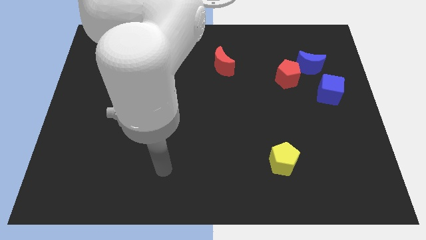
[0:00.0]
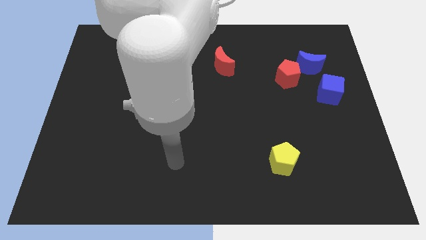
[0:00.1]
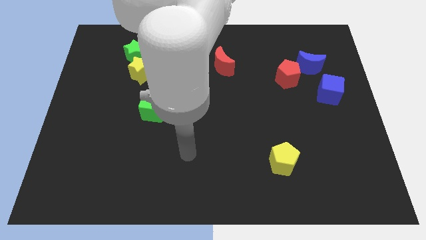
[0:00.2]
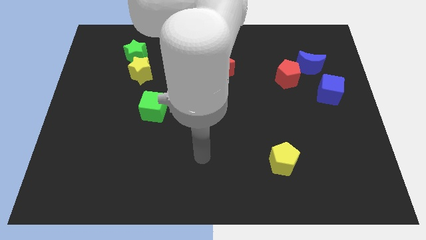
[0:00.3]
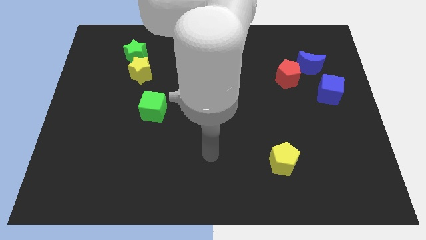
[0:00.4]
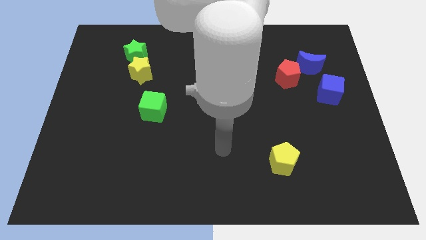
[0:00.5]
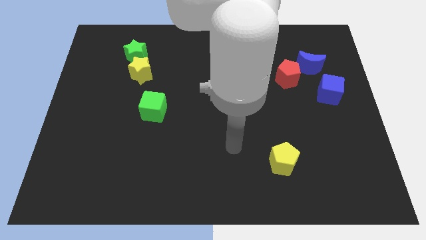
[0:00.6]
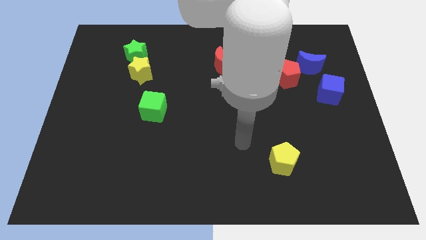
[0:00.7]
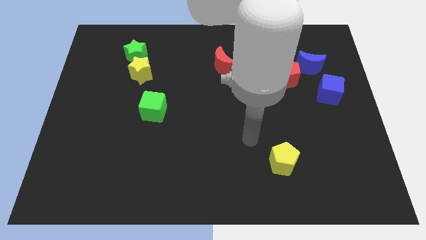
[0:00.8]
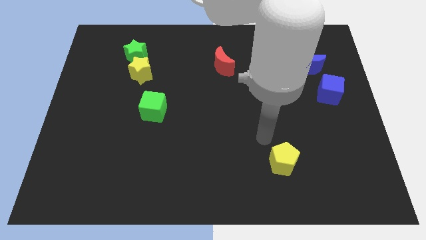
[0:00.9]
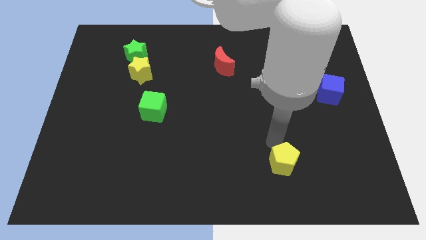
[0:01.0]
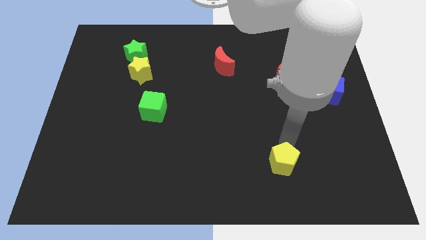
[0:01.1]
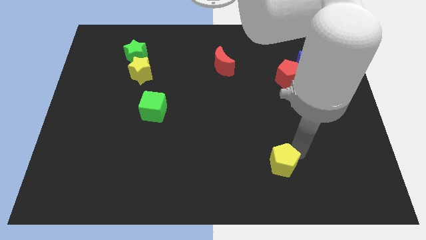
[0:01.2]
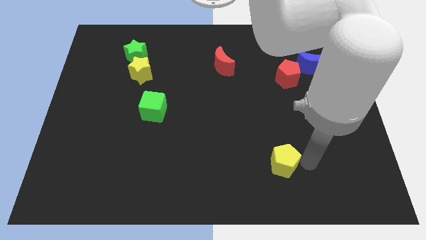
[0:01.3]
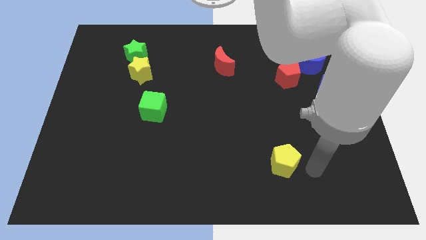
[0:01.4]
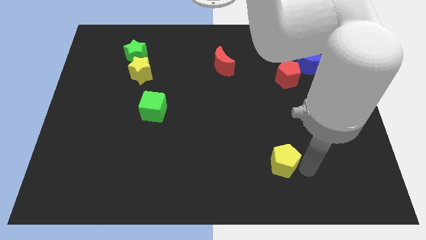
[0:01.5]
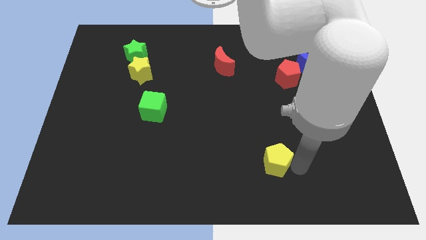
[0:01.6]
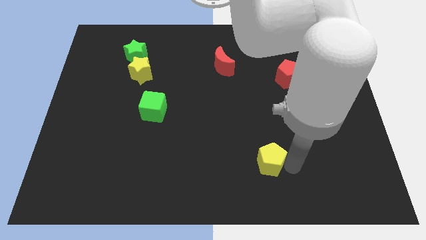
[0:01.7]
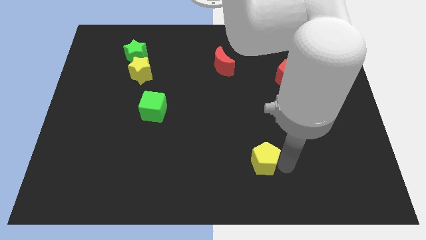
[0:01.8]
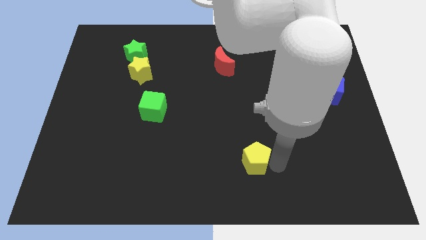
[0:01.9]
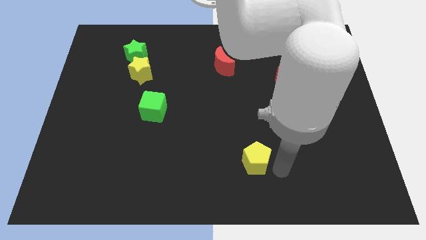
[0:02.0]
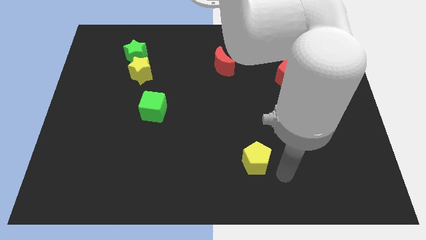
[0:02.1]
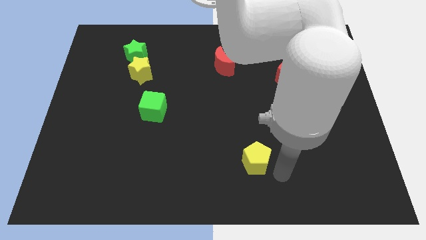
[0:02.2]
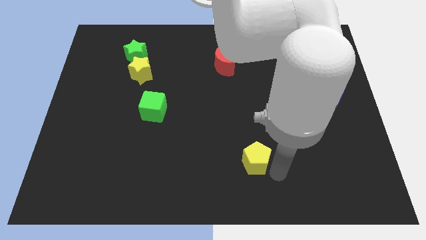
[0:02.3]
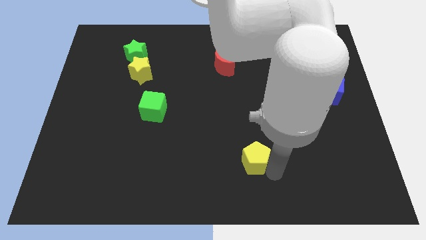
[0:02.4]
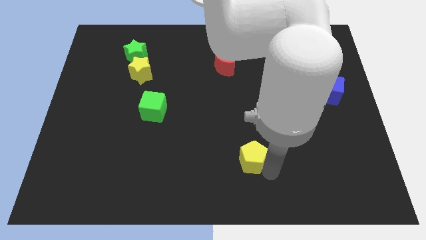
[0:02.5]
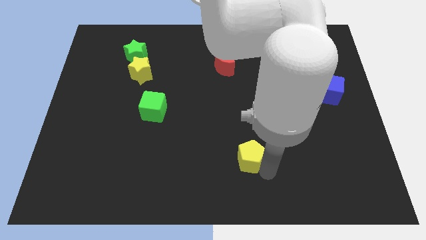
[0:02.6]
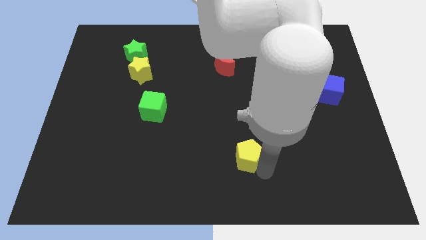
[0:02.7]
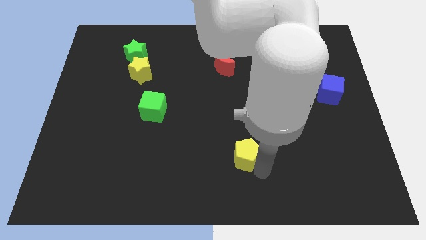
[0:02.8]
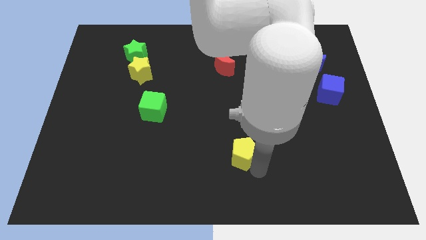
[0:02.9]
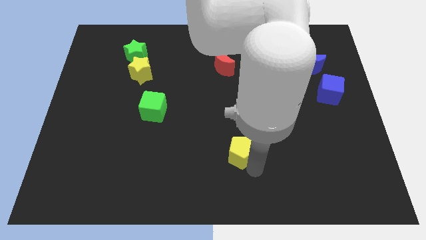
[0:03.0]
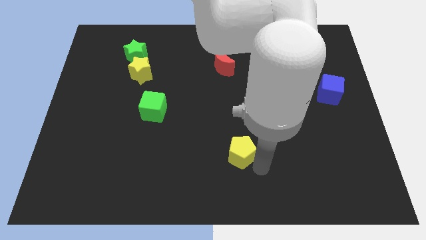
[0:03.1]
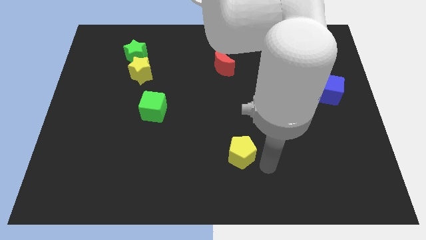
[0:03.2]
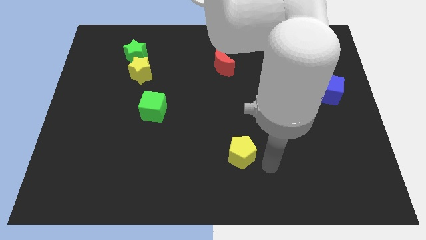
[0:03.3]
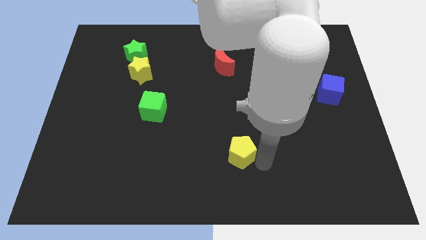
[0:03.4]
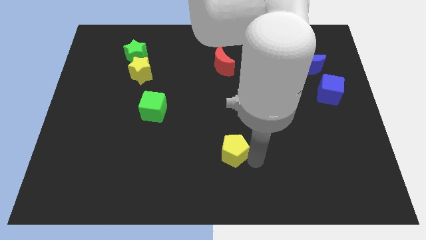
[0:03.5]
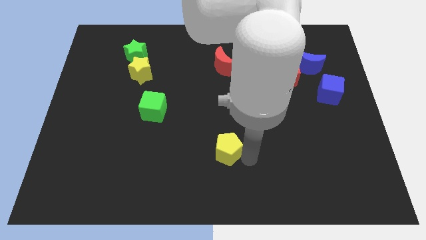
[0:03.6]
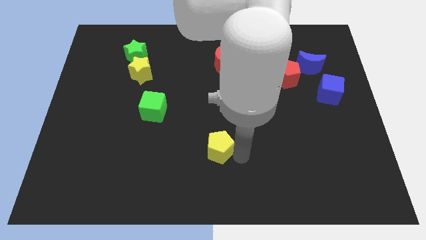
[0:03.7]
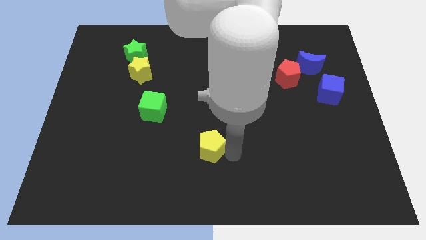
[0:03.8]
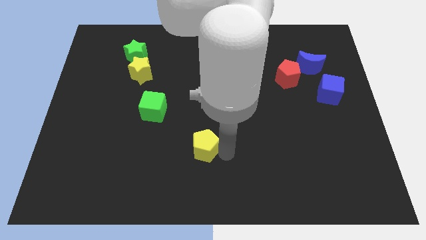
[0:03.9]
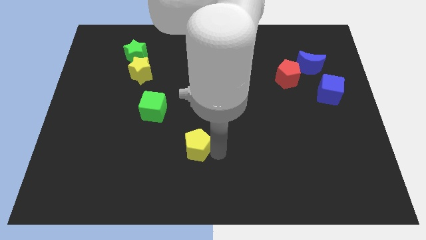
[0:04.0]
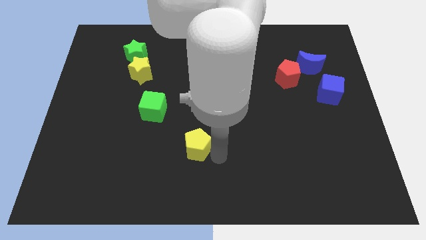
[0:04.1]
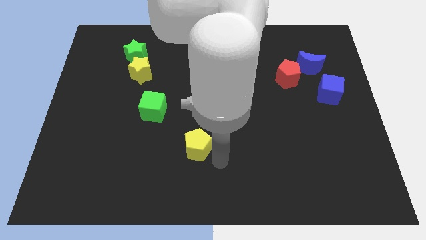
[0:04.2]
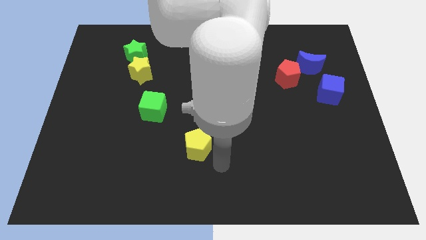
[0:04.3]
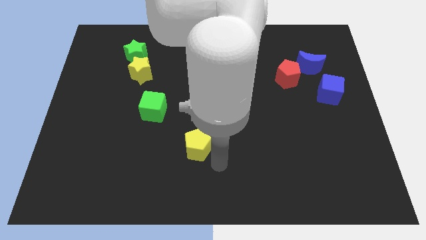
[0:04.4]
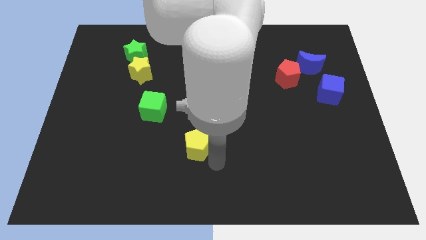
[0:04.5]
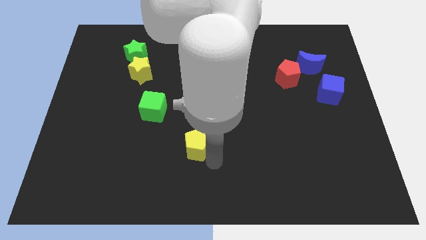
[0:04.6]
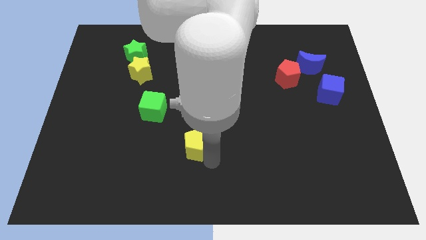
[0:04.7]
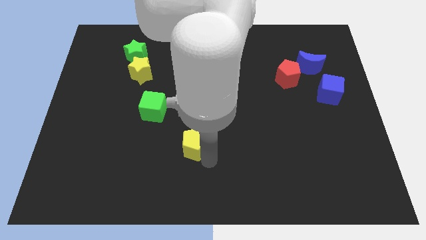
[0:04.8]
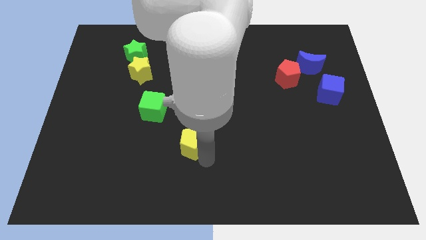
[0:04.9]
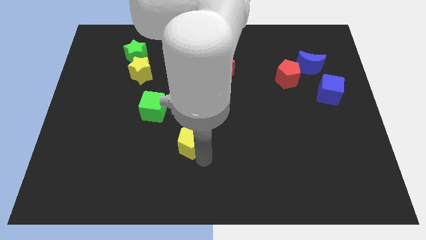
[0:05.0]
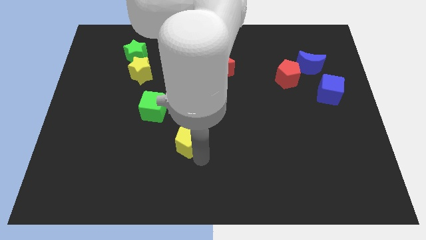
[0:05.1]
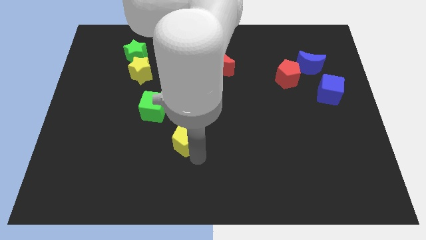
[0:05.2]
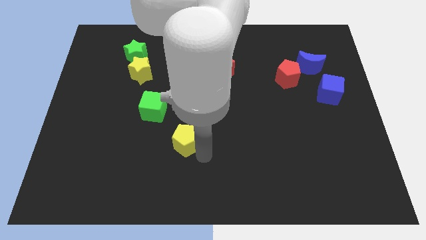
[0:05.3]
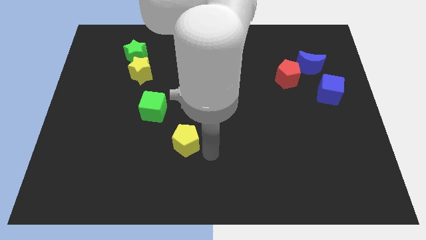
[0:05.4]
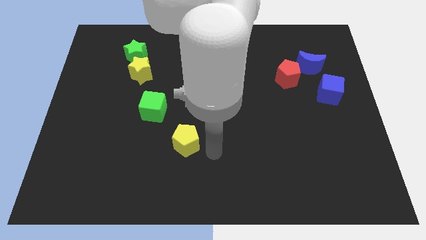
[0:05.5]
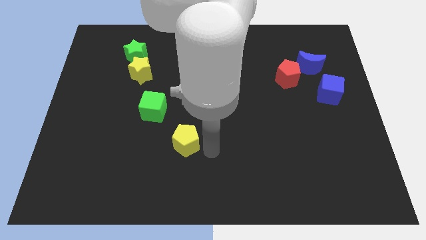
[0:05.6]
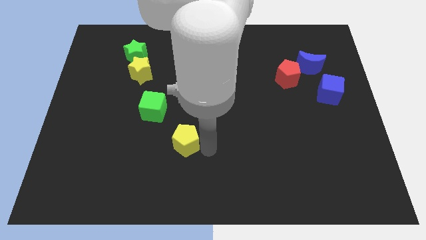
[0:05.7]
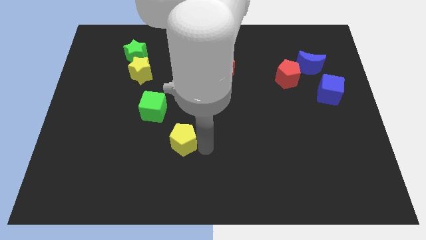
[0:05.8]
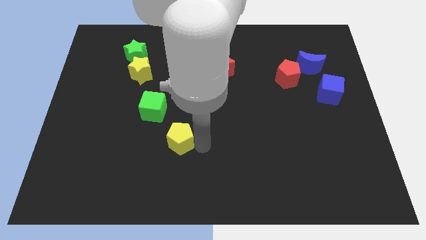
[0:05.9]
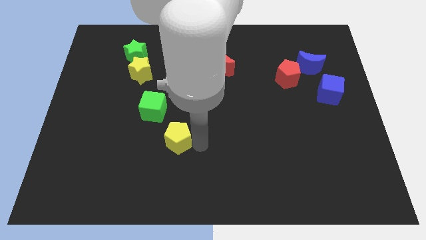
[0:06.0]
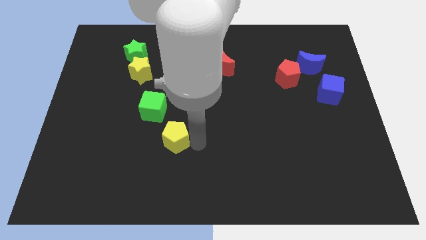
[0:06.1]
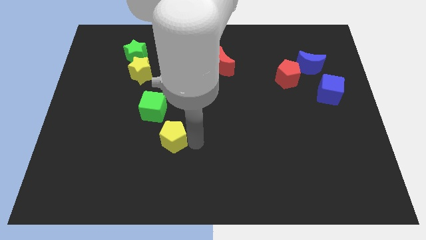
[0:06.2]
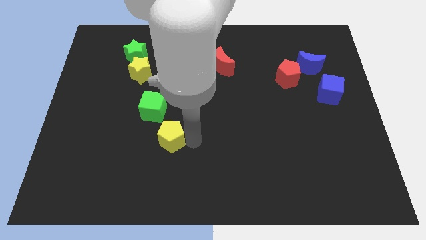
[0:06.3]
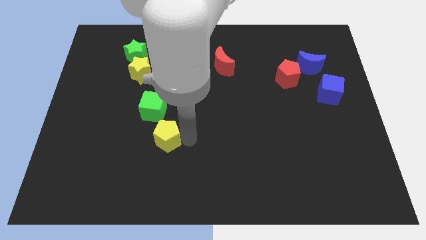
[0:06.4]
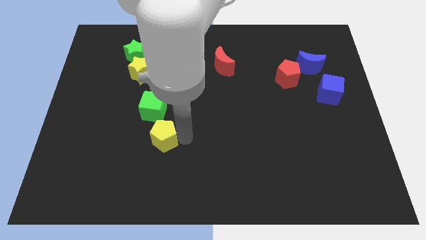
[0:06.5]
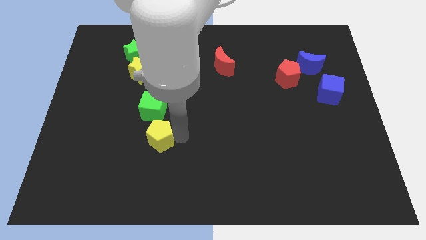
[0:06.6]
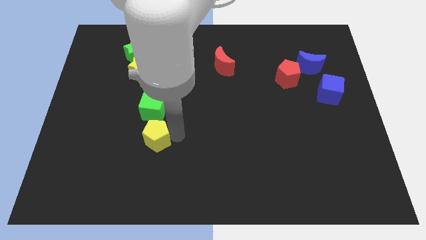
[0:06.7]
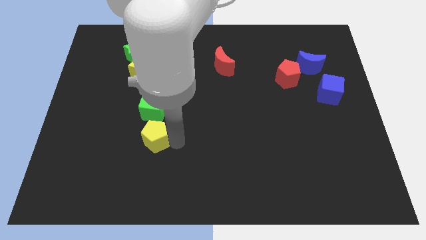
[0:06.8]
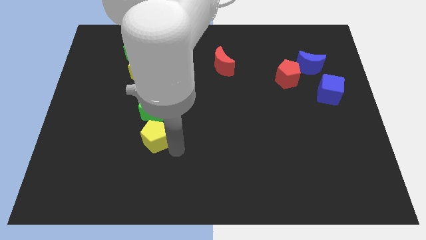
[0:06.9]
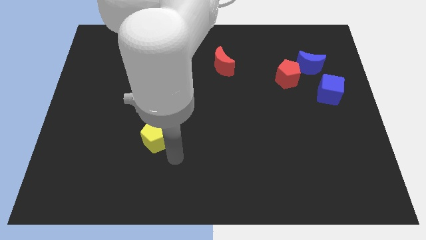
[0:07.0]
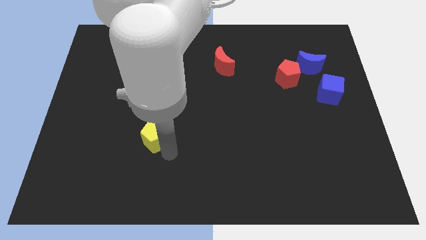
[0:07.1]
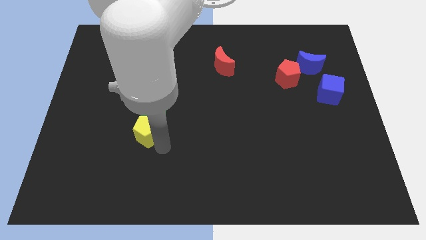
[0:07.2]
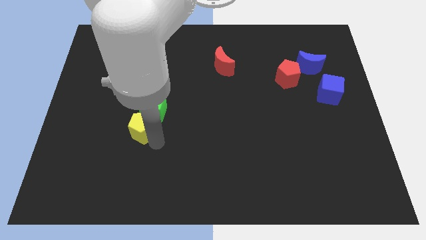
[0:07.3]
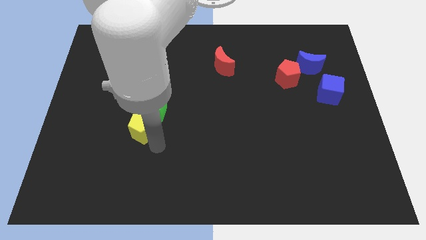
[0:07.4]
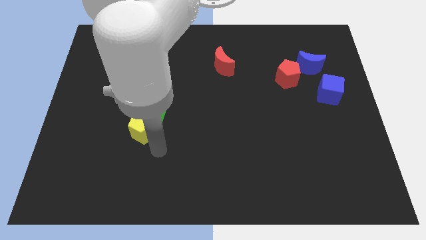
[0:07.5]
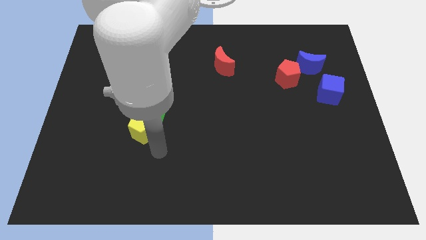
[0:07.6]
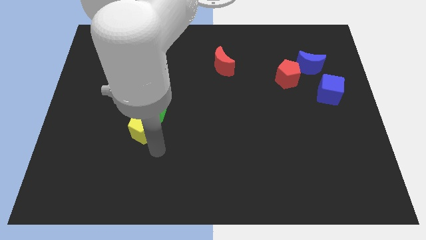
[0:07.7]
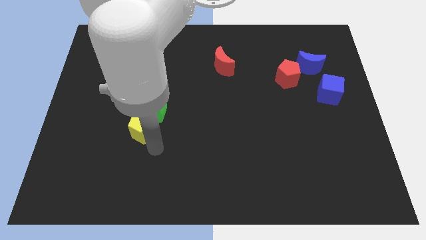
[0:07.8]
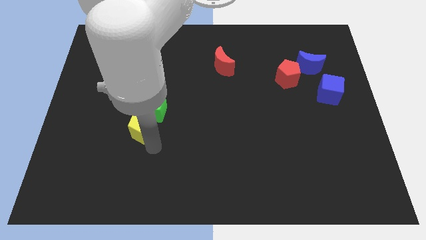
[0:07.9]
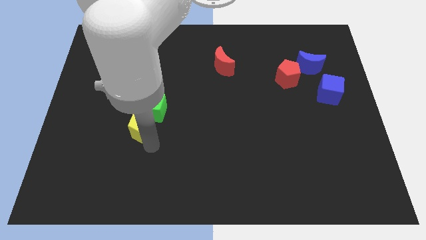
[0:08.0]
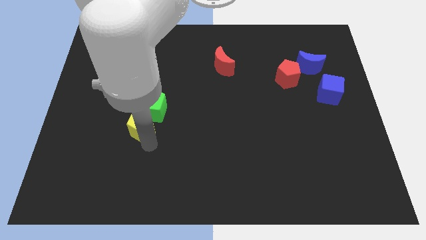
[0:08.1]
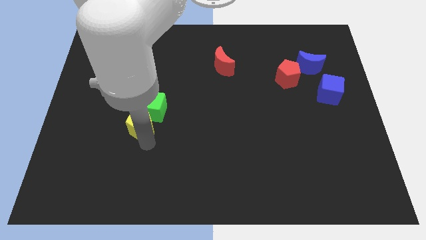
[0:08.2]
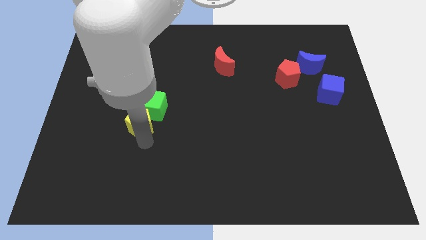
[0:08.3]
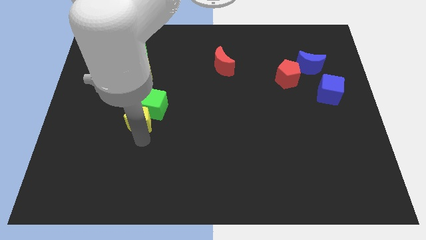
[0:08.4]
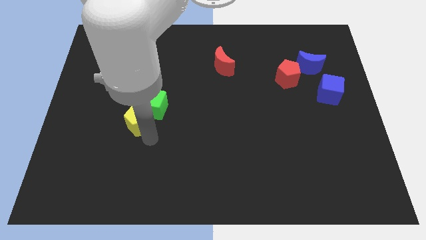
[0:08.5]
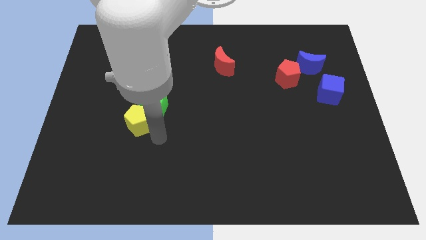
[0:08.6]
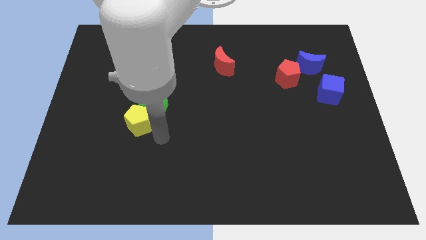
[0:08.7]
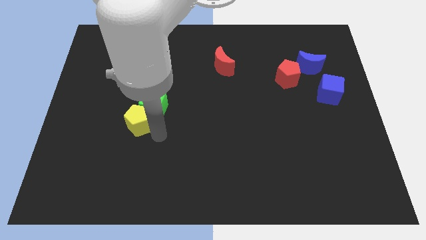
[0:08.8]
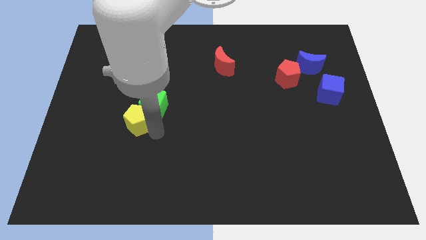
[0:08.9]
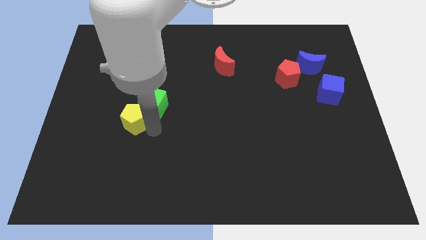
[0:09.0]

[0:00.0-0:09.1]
move the yellow pentagon to the left side of the green cube
